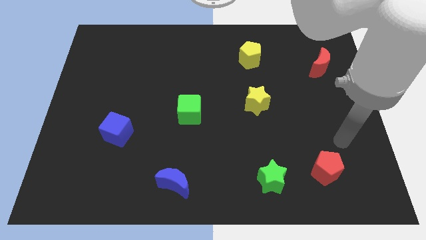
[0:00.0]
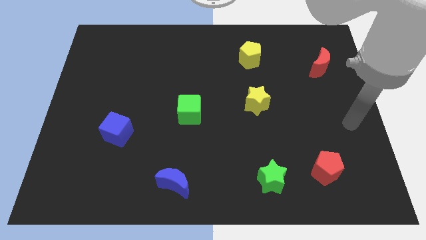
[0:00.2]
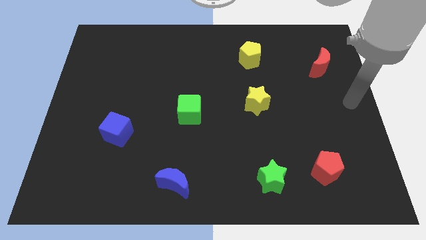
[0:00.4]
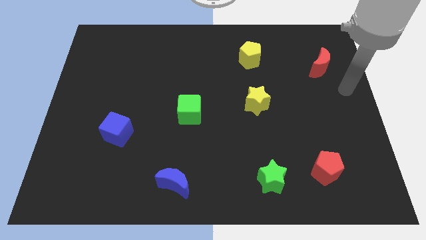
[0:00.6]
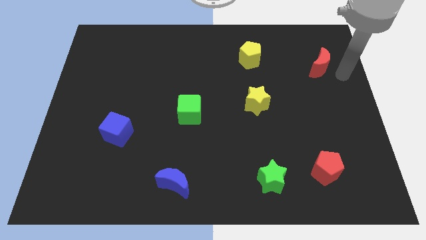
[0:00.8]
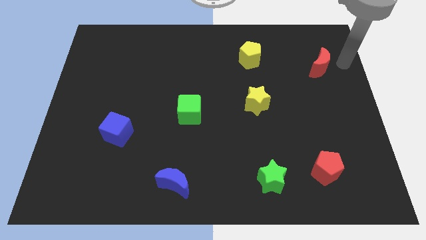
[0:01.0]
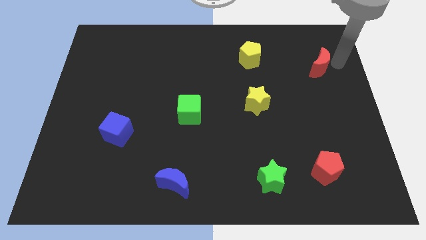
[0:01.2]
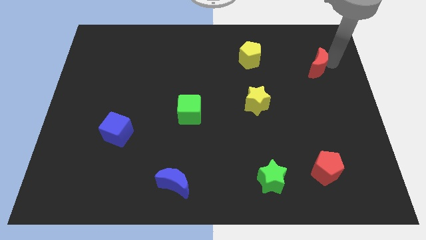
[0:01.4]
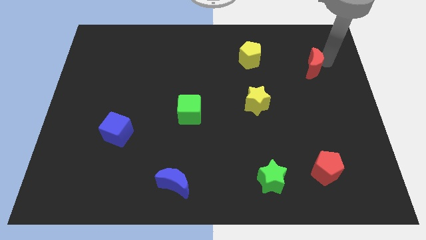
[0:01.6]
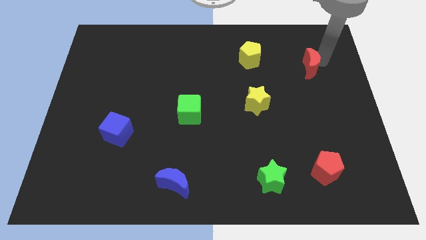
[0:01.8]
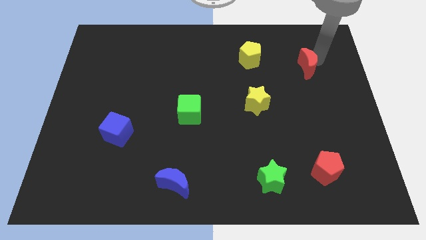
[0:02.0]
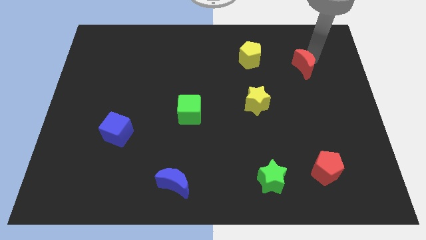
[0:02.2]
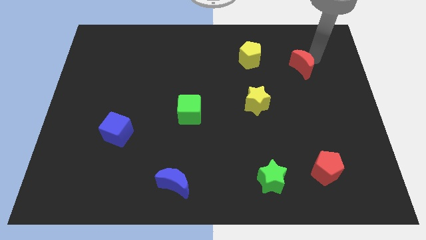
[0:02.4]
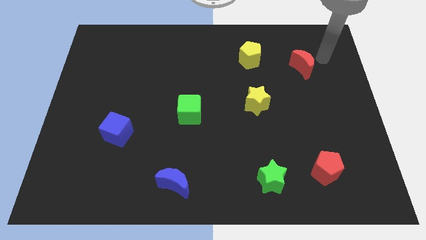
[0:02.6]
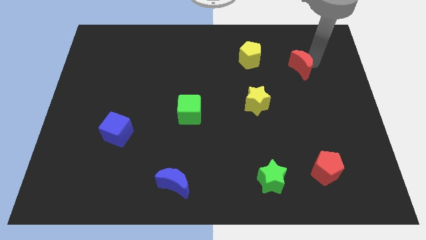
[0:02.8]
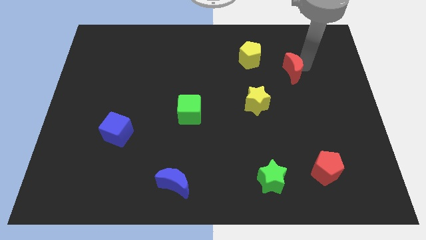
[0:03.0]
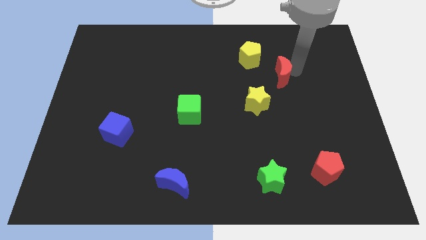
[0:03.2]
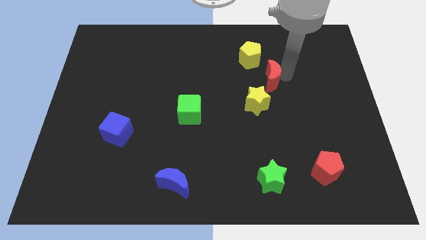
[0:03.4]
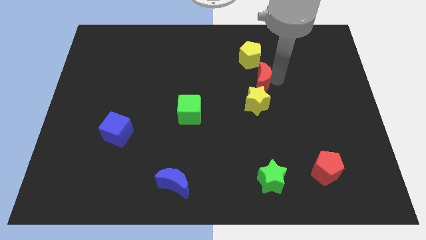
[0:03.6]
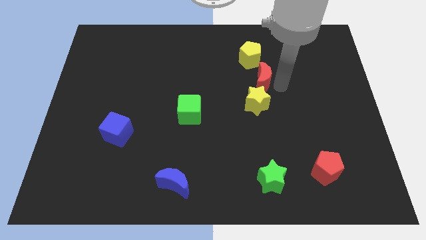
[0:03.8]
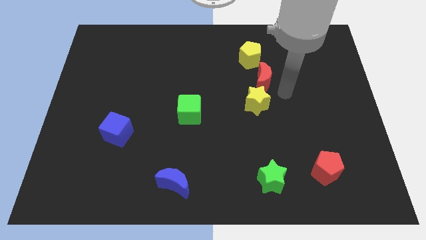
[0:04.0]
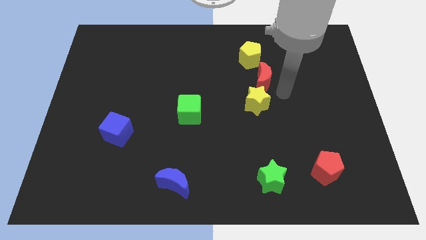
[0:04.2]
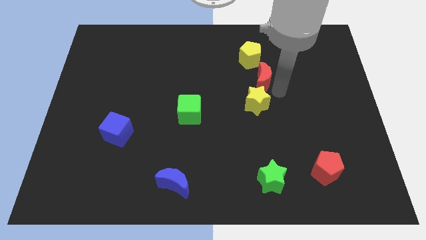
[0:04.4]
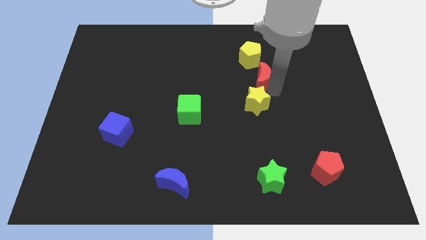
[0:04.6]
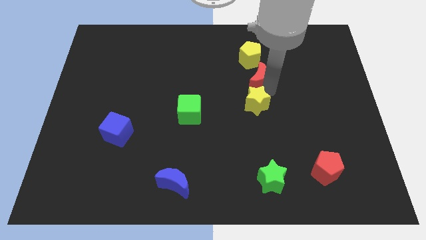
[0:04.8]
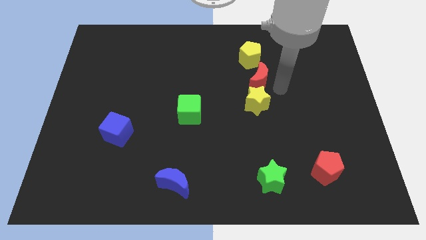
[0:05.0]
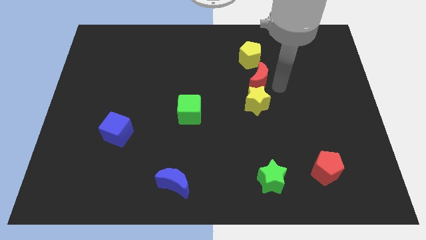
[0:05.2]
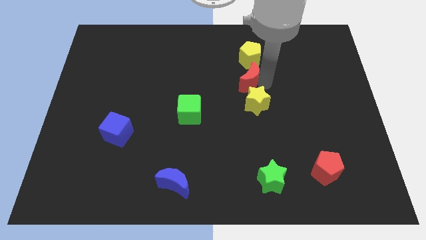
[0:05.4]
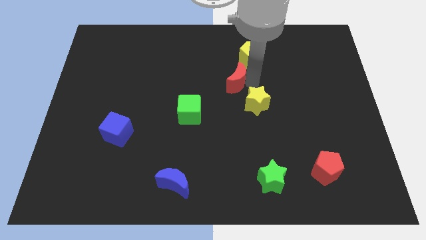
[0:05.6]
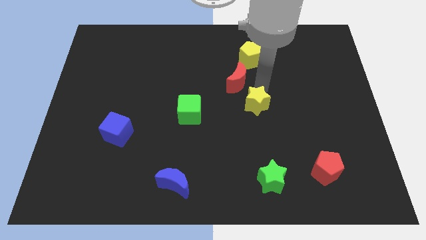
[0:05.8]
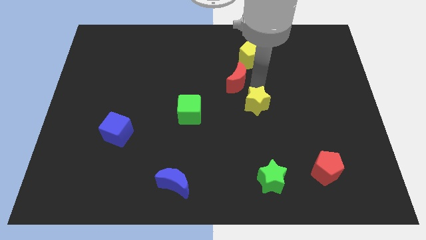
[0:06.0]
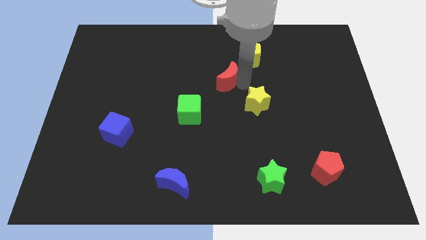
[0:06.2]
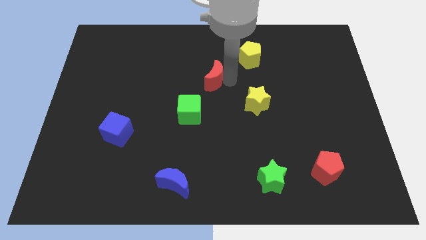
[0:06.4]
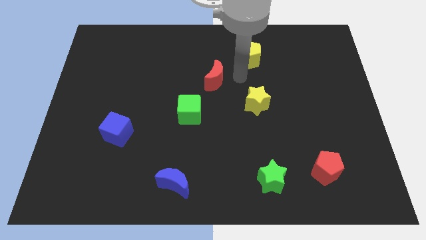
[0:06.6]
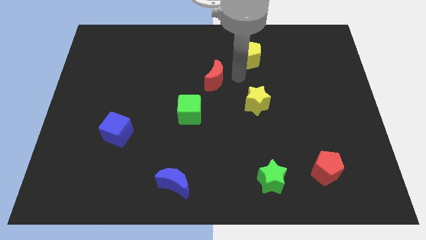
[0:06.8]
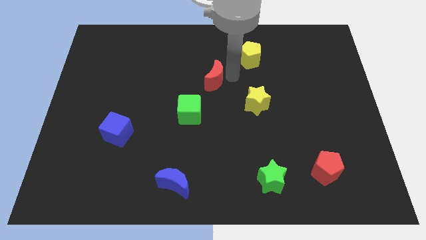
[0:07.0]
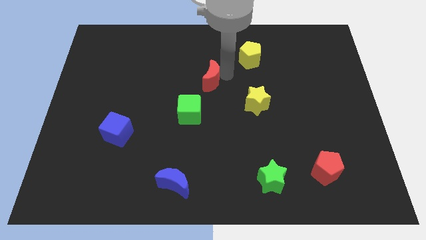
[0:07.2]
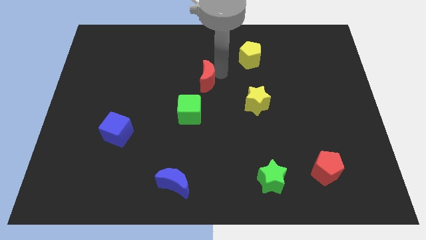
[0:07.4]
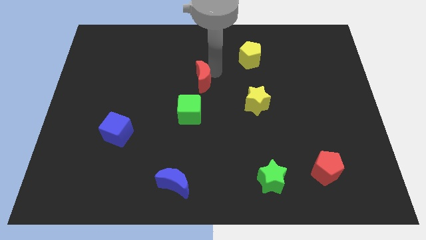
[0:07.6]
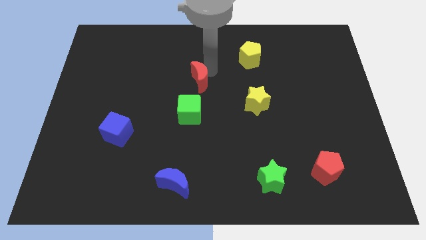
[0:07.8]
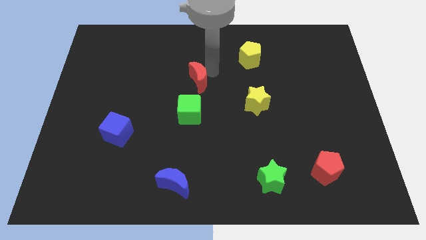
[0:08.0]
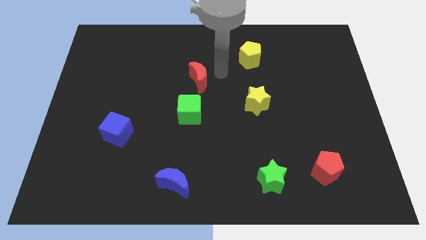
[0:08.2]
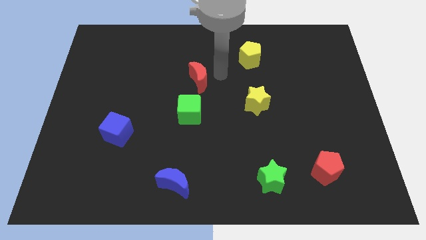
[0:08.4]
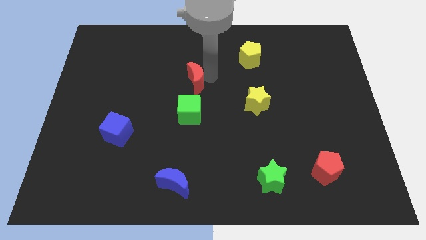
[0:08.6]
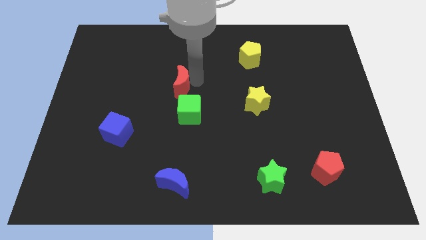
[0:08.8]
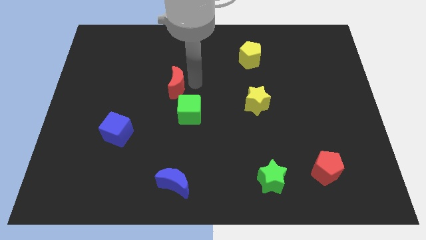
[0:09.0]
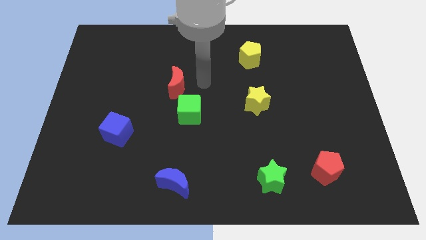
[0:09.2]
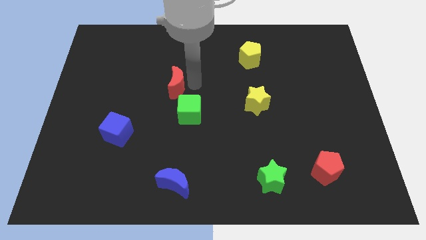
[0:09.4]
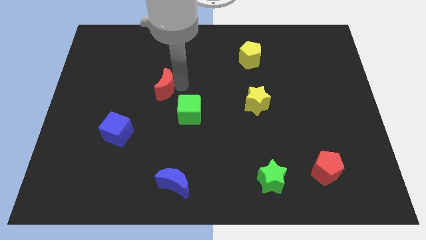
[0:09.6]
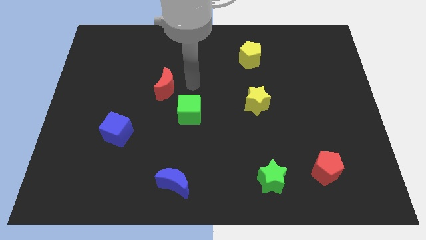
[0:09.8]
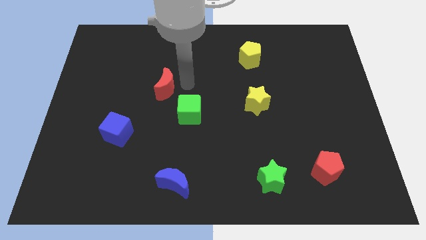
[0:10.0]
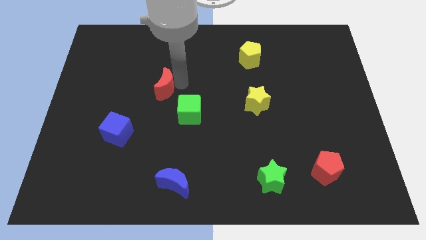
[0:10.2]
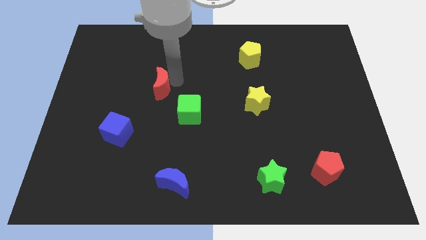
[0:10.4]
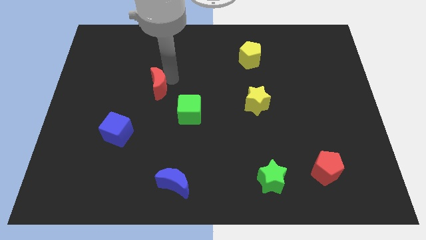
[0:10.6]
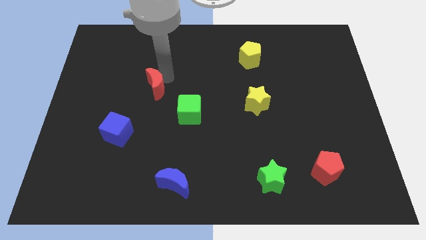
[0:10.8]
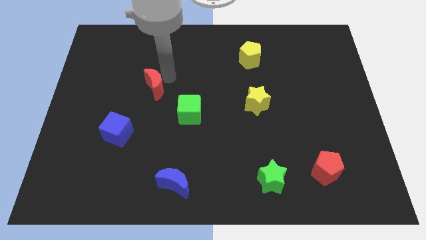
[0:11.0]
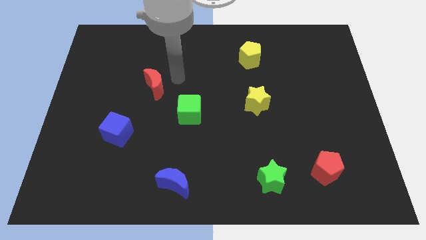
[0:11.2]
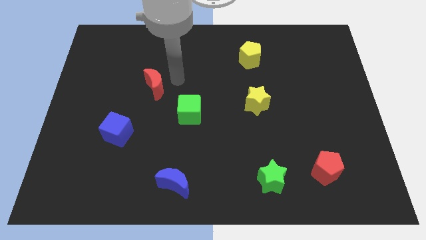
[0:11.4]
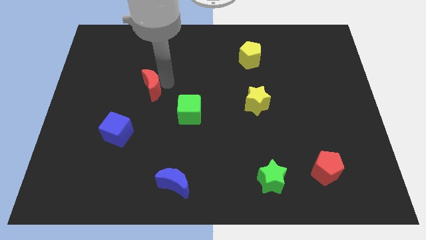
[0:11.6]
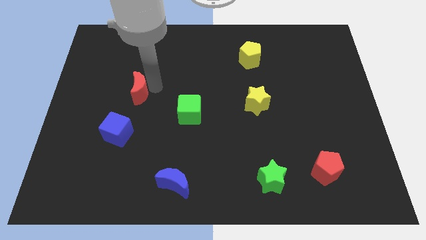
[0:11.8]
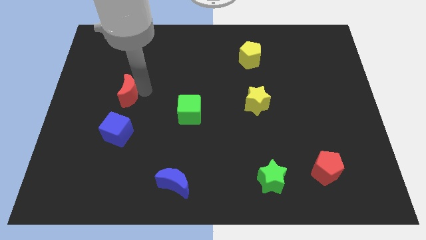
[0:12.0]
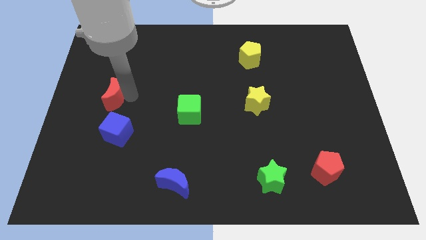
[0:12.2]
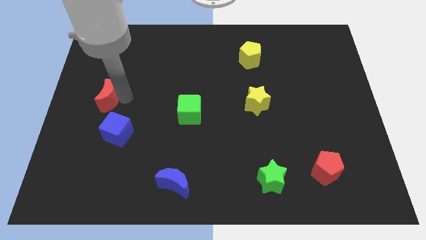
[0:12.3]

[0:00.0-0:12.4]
push the red moon to the left side of the board
